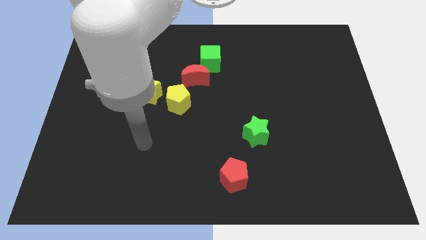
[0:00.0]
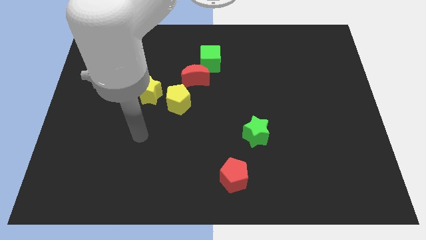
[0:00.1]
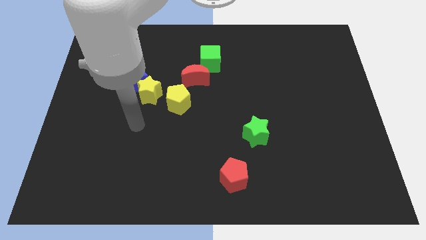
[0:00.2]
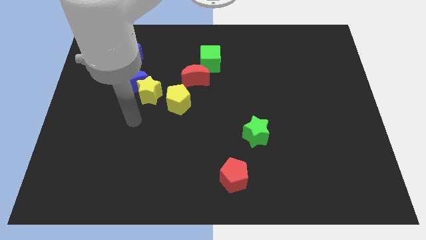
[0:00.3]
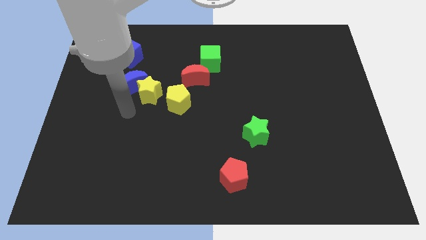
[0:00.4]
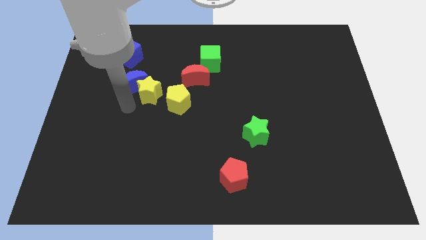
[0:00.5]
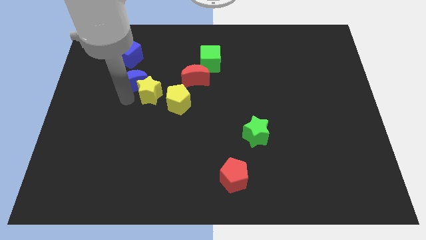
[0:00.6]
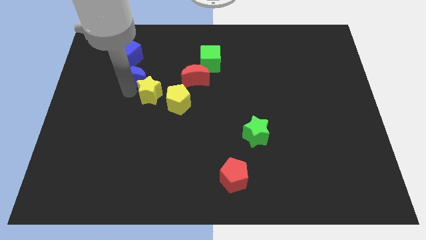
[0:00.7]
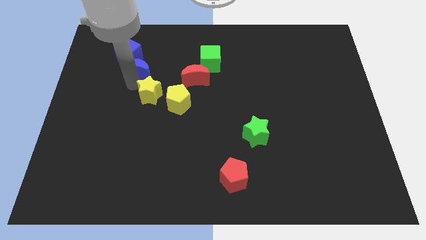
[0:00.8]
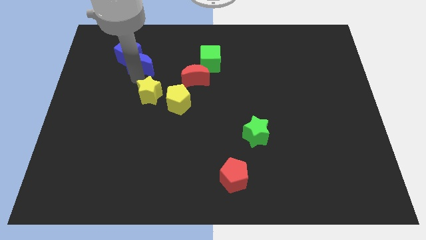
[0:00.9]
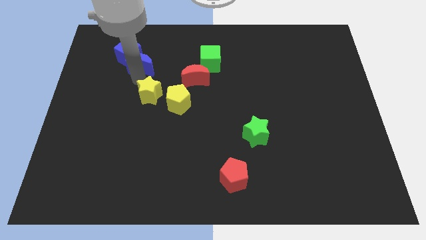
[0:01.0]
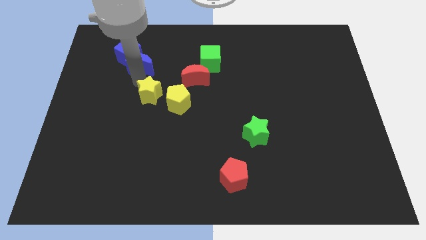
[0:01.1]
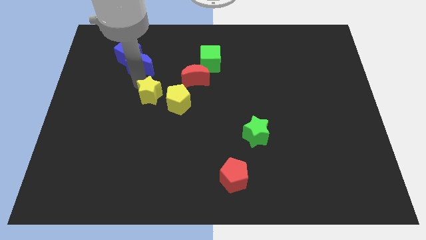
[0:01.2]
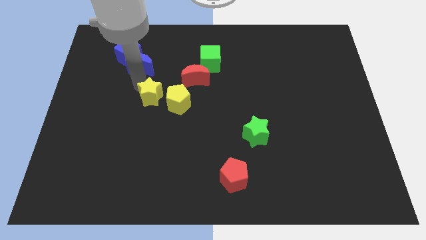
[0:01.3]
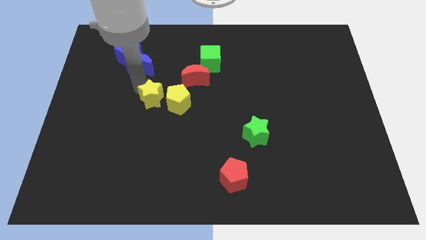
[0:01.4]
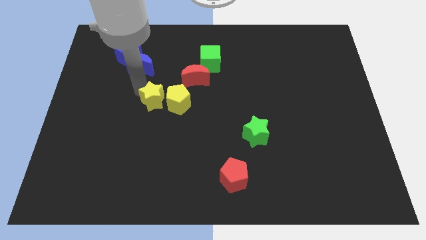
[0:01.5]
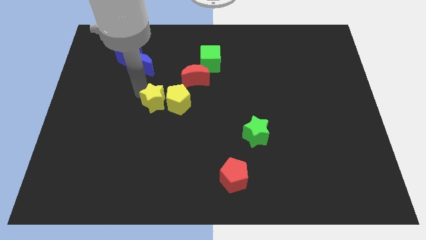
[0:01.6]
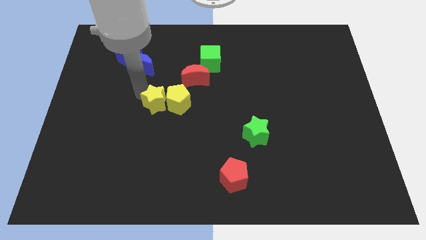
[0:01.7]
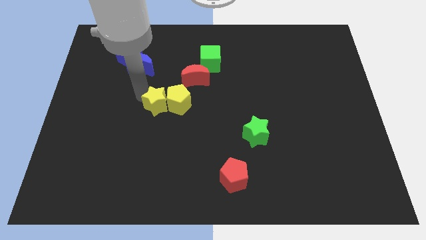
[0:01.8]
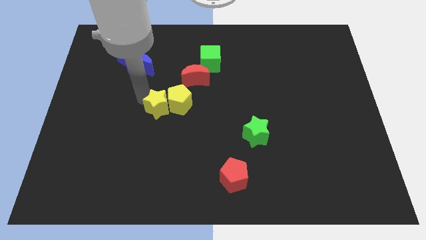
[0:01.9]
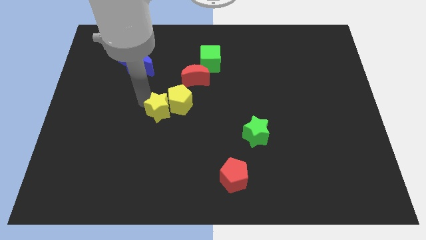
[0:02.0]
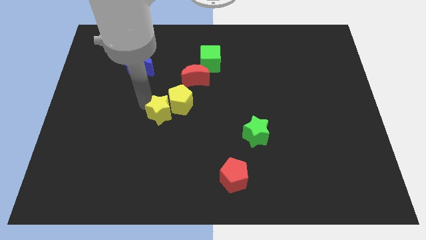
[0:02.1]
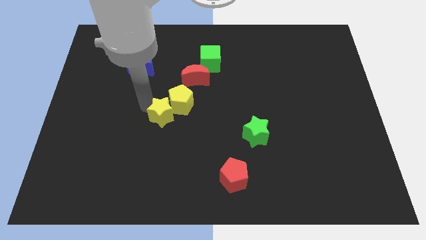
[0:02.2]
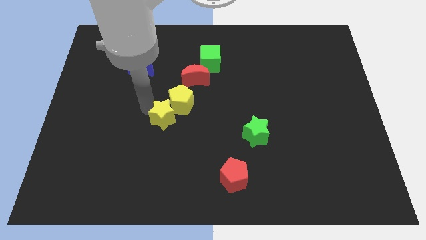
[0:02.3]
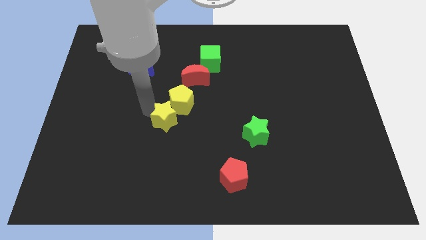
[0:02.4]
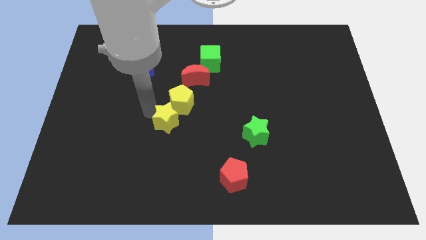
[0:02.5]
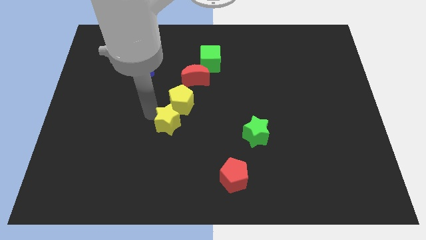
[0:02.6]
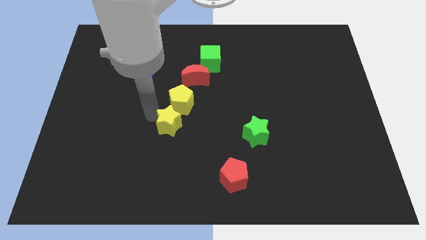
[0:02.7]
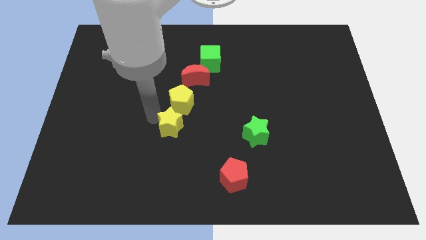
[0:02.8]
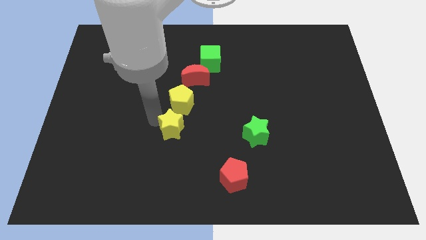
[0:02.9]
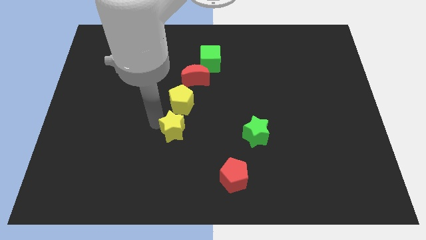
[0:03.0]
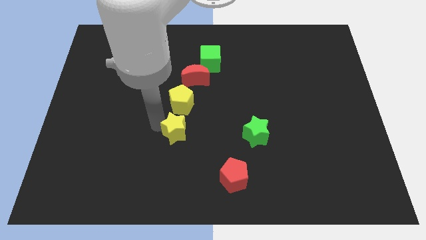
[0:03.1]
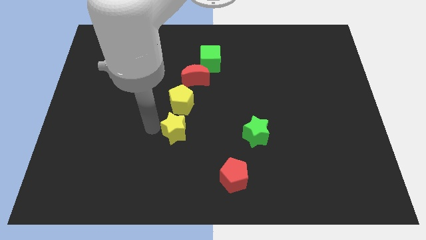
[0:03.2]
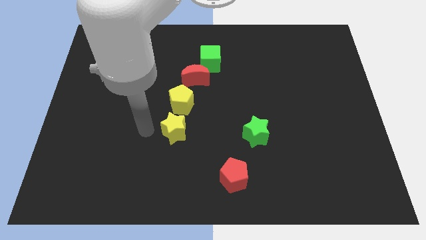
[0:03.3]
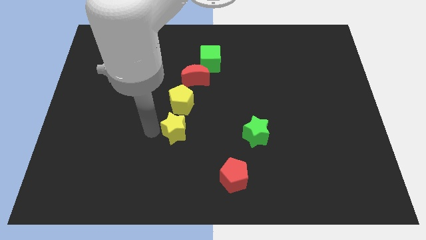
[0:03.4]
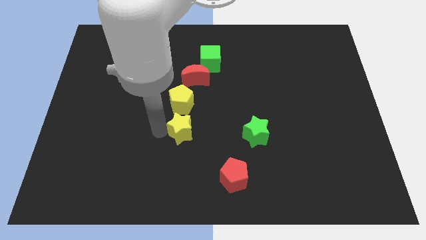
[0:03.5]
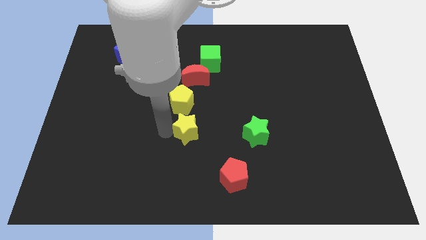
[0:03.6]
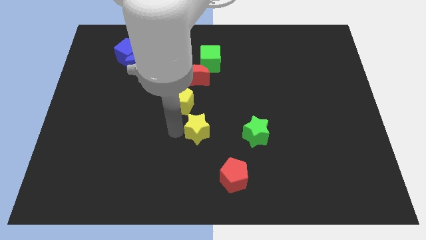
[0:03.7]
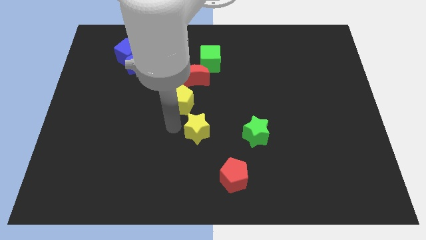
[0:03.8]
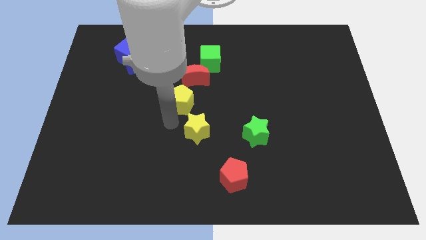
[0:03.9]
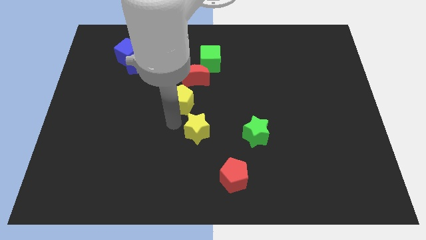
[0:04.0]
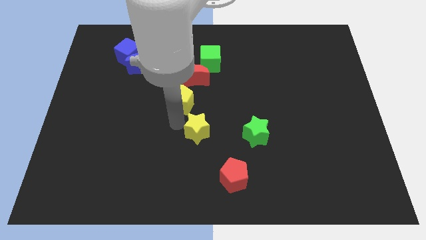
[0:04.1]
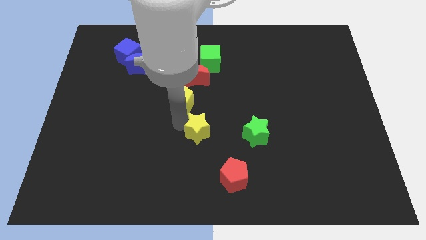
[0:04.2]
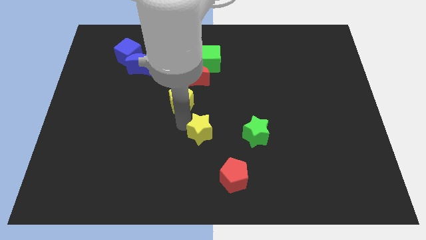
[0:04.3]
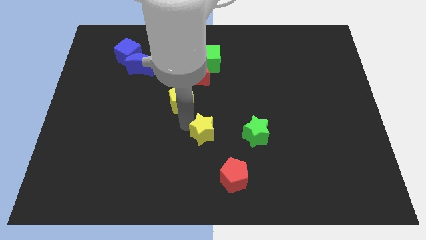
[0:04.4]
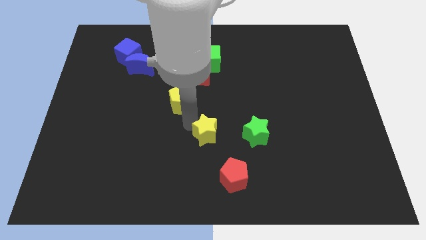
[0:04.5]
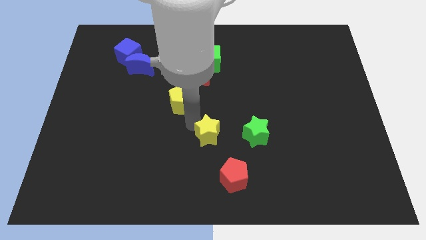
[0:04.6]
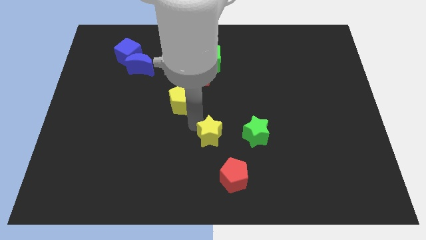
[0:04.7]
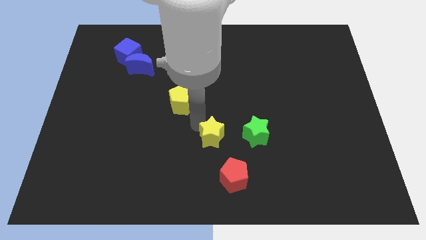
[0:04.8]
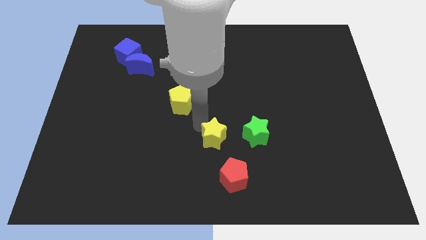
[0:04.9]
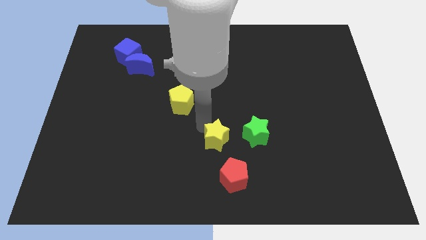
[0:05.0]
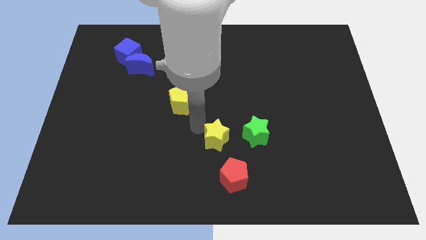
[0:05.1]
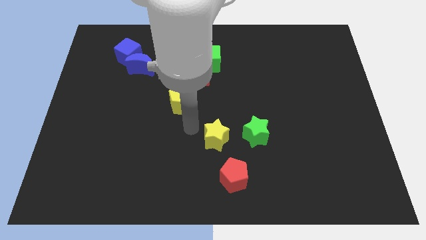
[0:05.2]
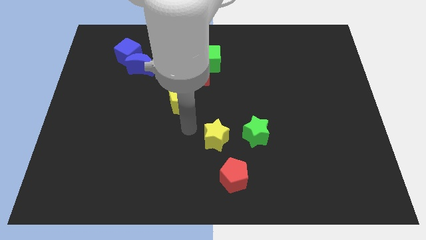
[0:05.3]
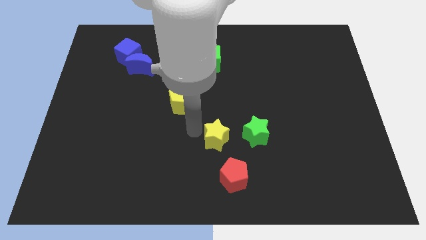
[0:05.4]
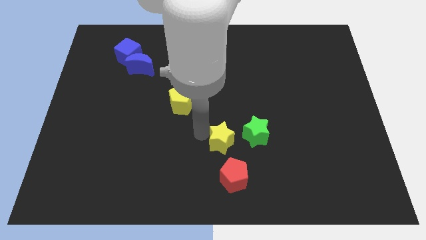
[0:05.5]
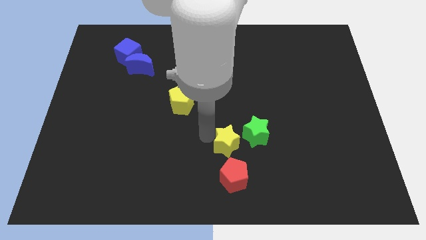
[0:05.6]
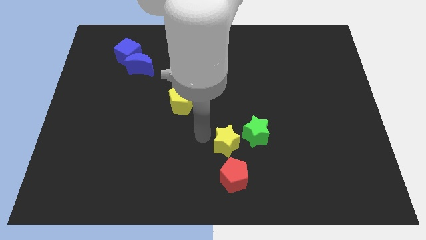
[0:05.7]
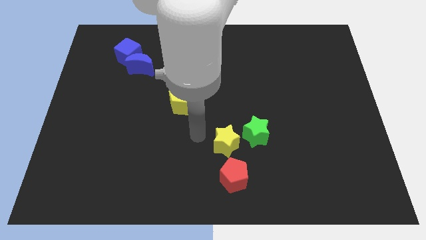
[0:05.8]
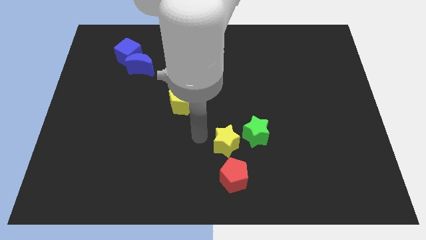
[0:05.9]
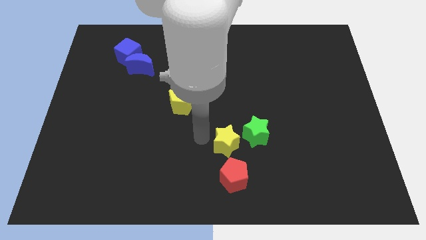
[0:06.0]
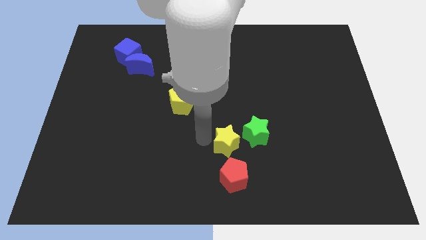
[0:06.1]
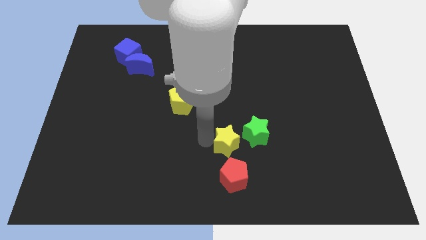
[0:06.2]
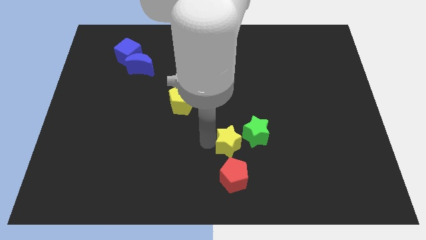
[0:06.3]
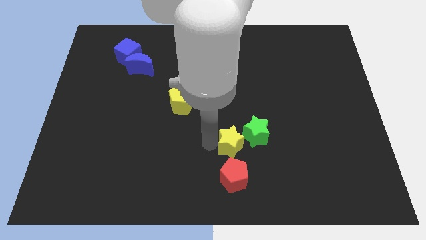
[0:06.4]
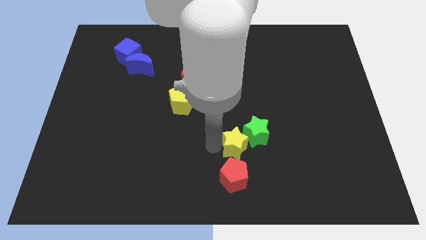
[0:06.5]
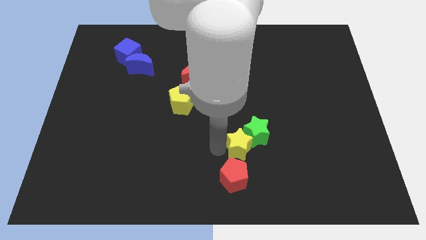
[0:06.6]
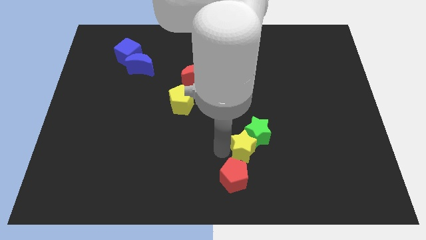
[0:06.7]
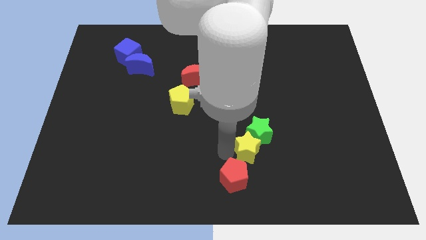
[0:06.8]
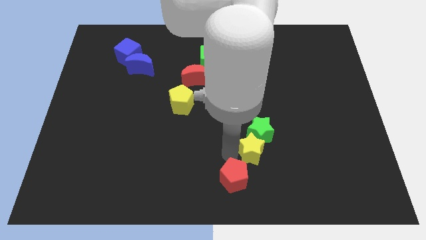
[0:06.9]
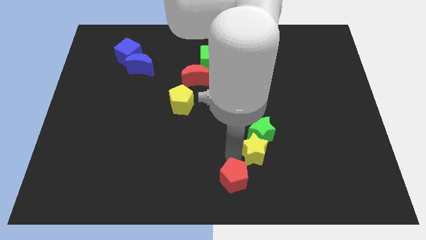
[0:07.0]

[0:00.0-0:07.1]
slide the yellow star to the bottom right side of the green star
